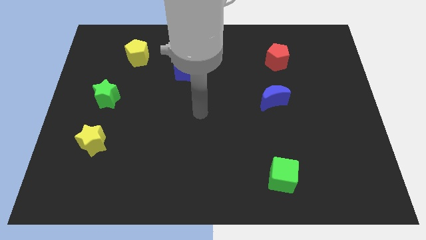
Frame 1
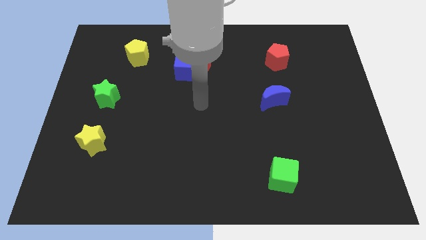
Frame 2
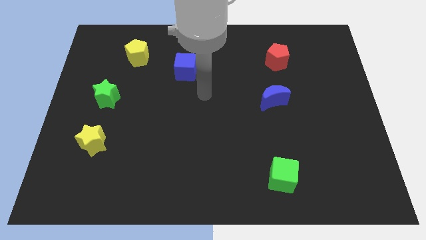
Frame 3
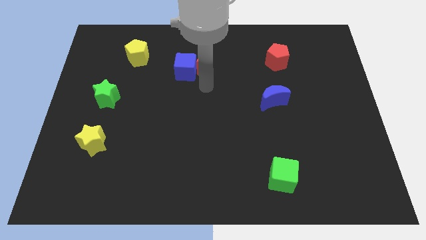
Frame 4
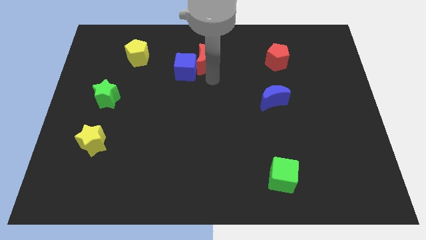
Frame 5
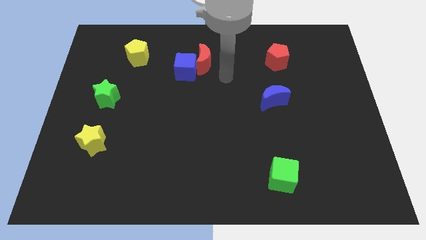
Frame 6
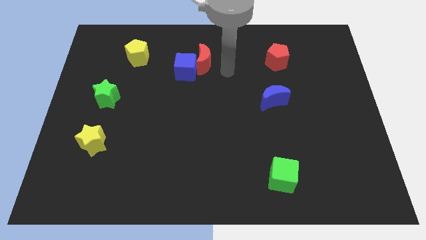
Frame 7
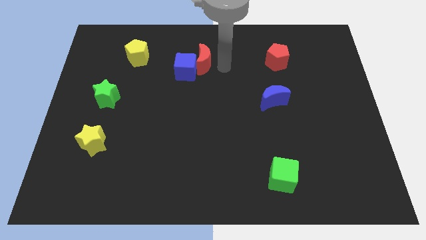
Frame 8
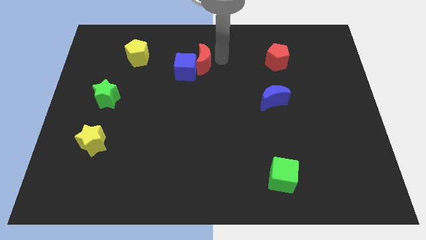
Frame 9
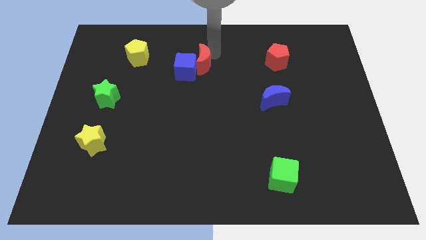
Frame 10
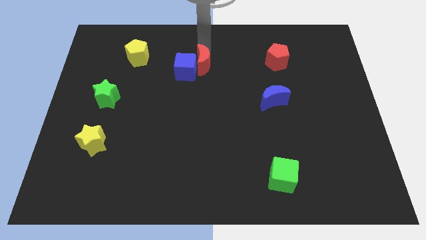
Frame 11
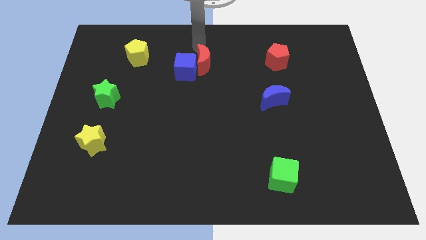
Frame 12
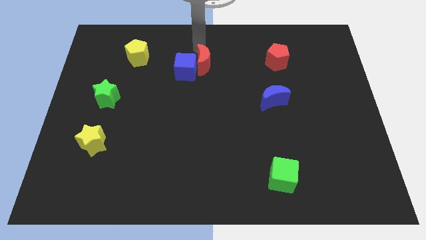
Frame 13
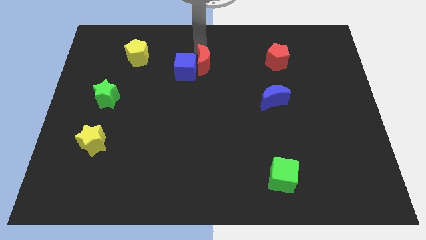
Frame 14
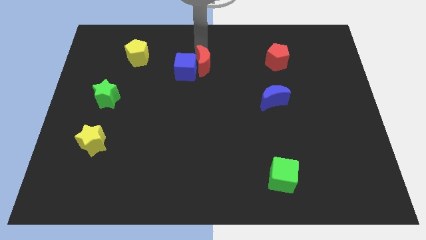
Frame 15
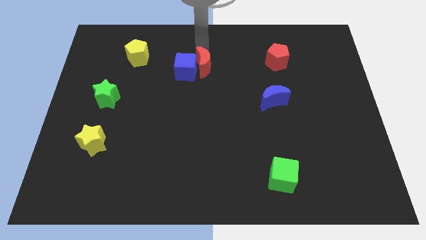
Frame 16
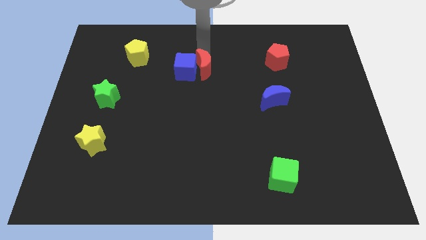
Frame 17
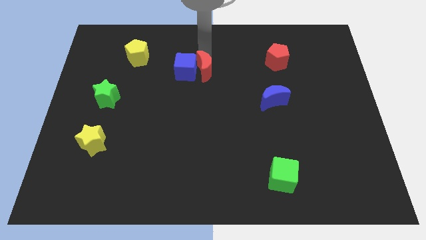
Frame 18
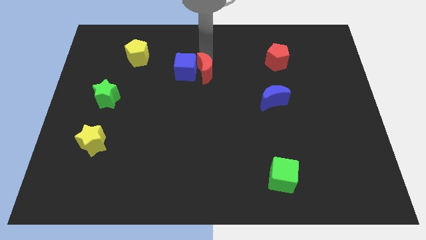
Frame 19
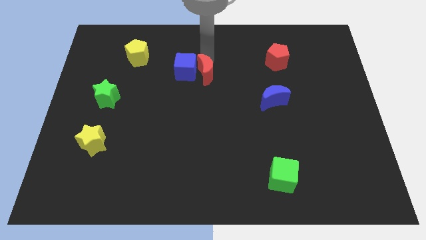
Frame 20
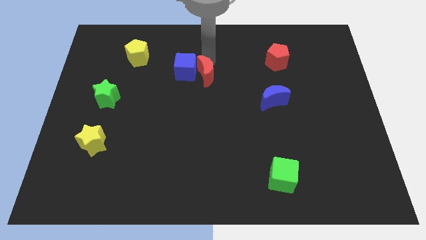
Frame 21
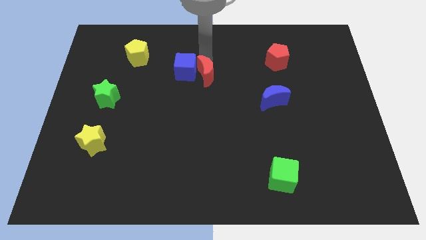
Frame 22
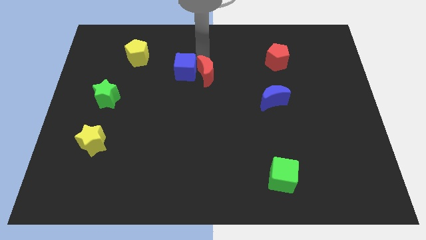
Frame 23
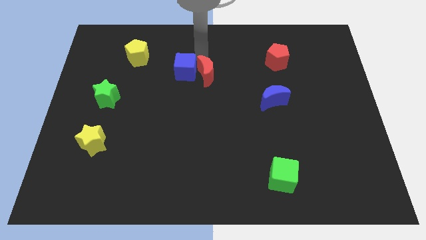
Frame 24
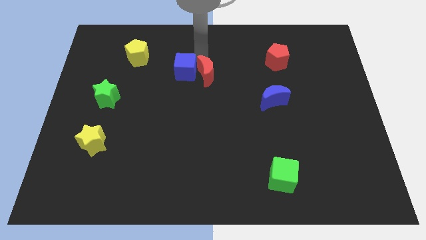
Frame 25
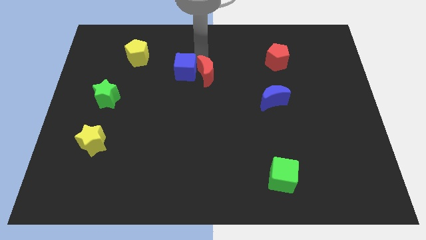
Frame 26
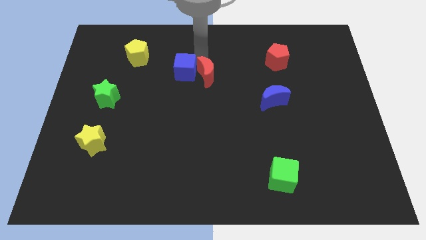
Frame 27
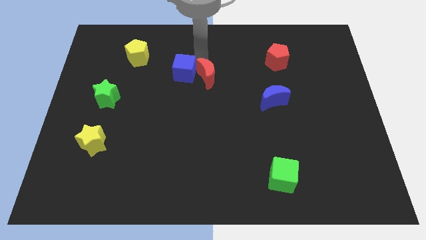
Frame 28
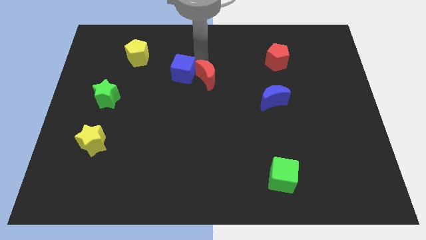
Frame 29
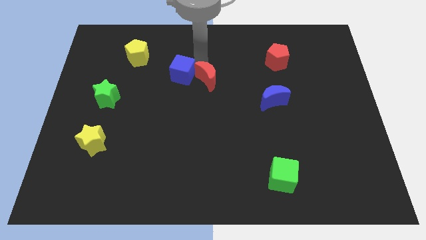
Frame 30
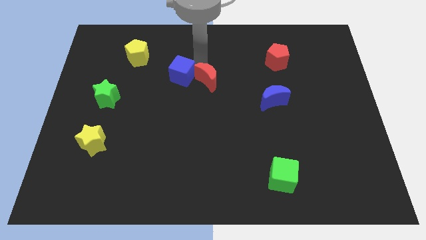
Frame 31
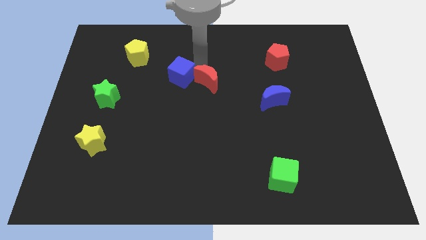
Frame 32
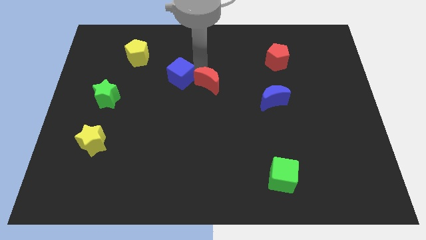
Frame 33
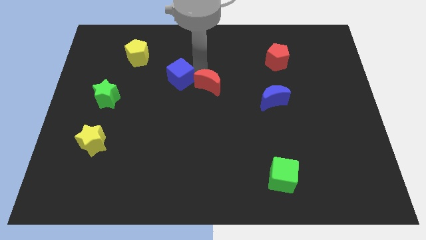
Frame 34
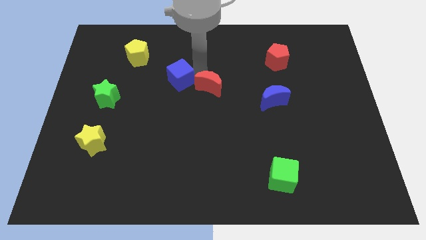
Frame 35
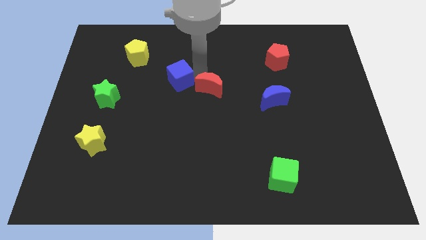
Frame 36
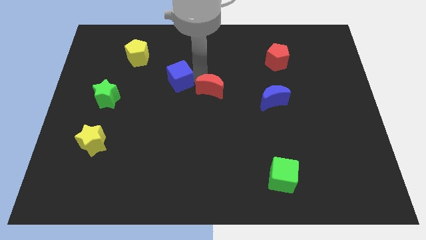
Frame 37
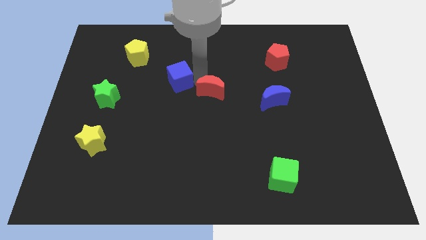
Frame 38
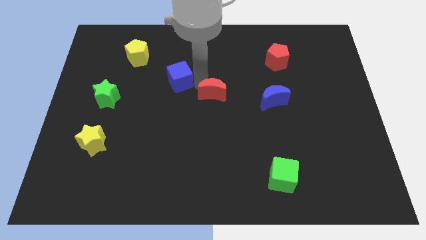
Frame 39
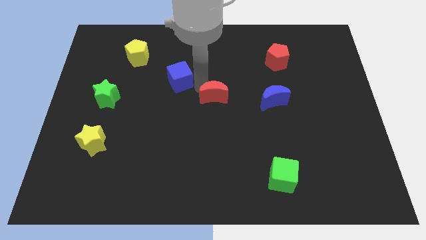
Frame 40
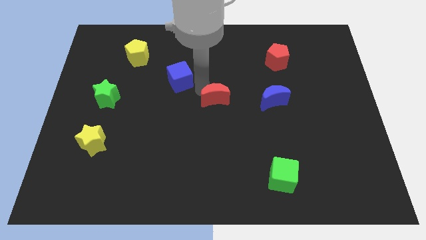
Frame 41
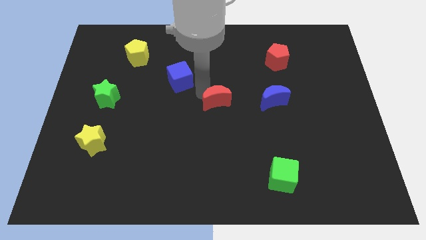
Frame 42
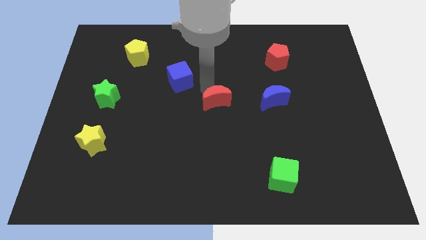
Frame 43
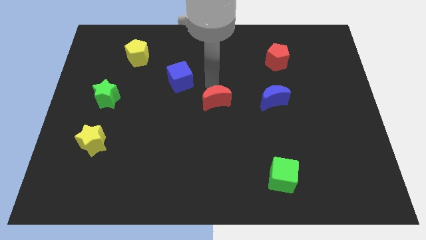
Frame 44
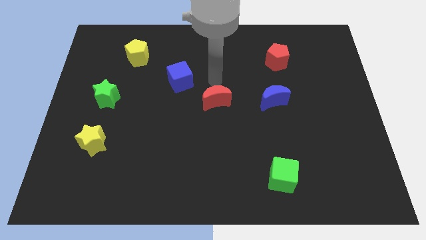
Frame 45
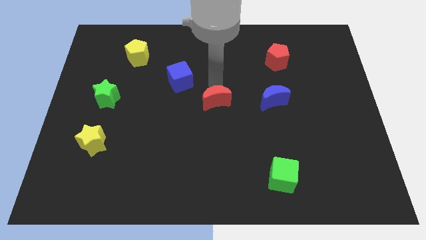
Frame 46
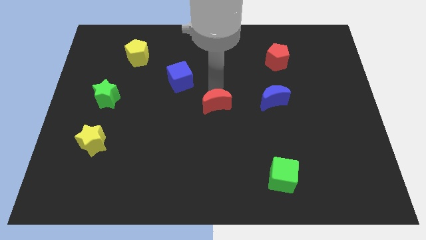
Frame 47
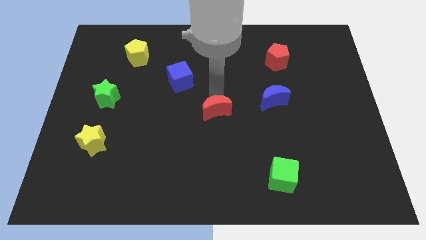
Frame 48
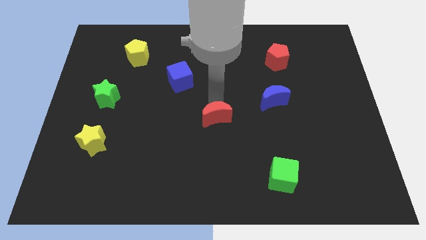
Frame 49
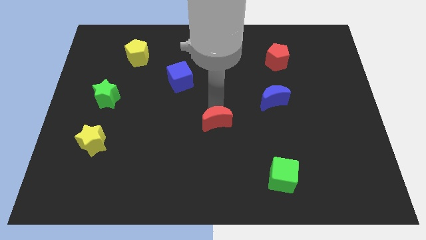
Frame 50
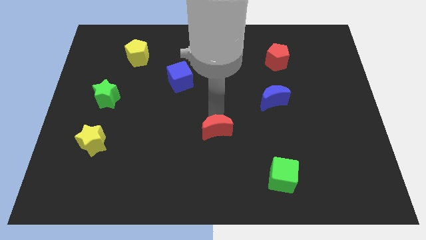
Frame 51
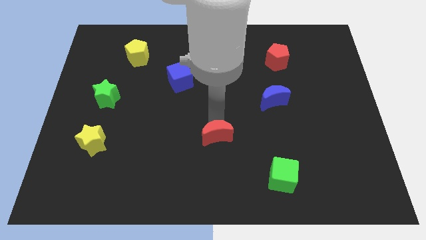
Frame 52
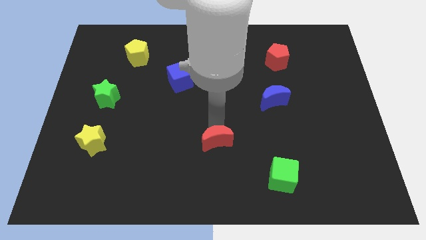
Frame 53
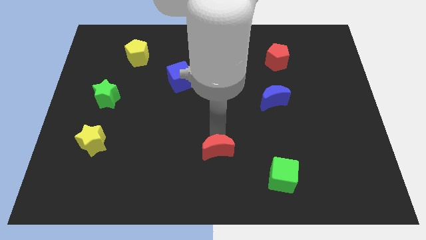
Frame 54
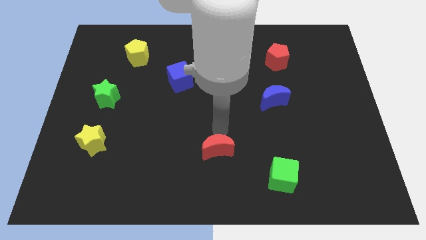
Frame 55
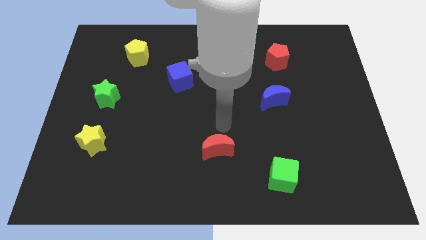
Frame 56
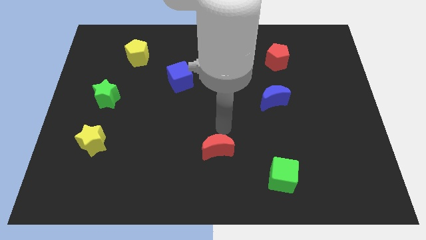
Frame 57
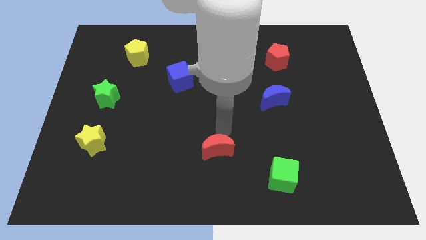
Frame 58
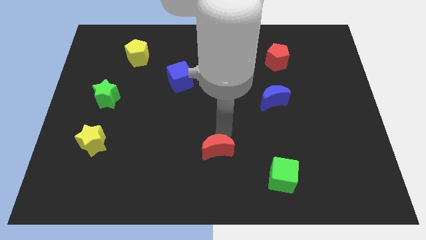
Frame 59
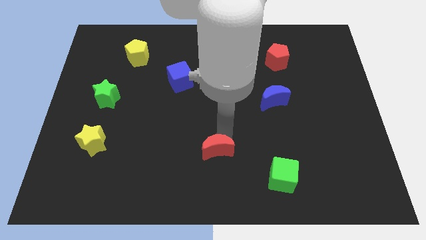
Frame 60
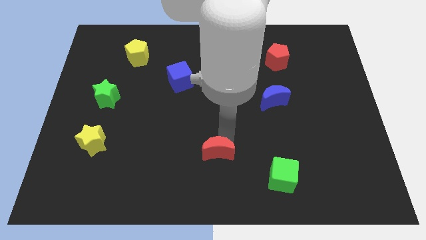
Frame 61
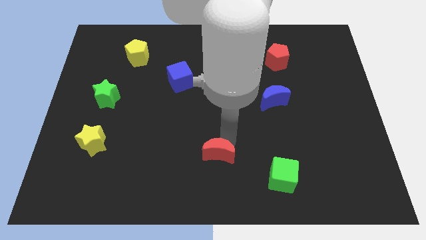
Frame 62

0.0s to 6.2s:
move the red moon to the bottom side
